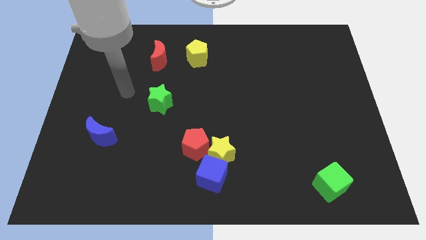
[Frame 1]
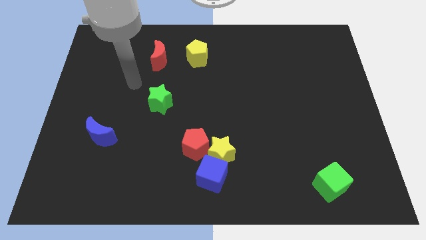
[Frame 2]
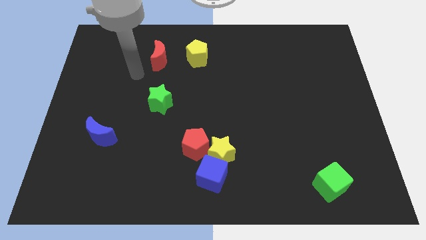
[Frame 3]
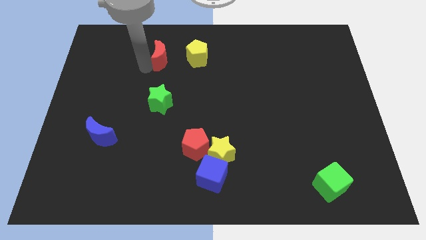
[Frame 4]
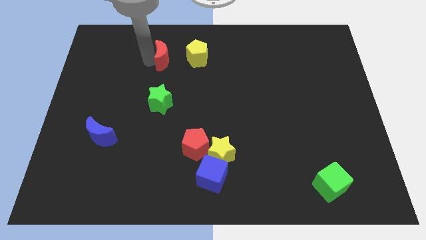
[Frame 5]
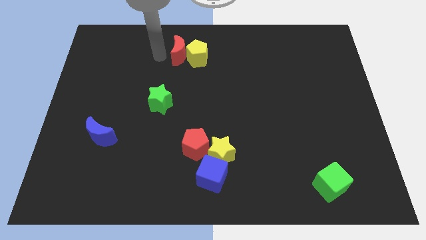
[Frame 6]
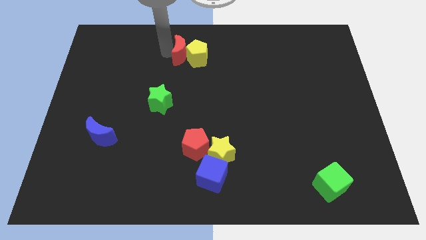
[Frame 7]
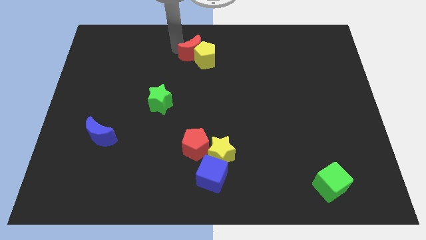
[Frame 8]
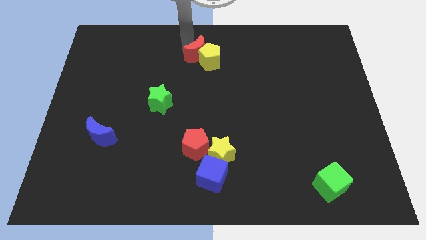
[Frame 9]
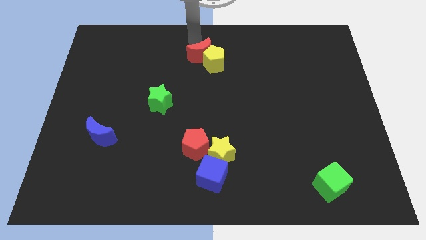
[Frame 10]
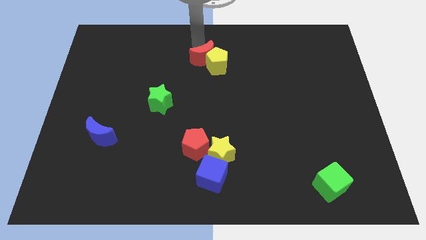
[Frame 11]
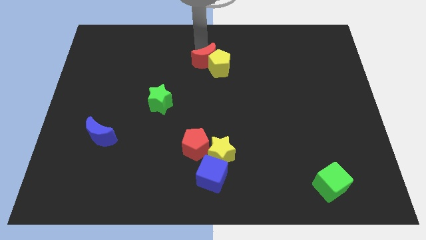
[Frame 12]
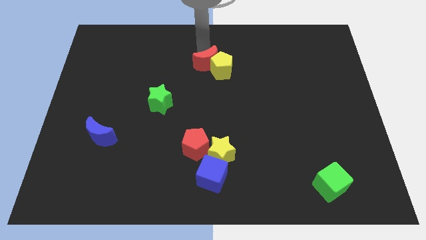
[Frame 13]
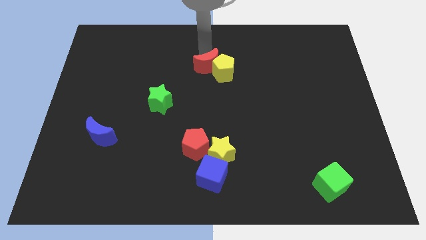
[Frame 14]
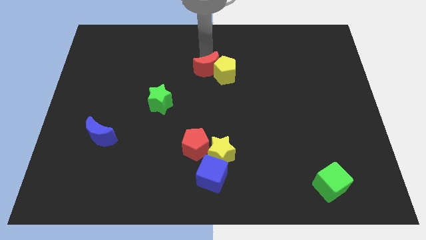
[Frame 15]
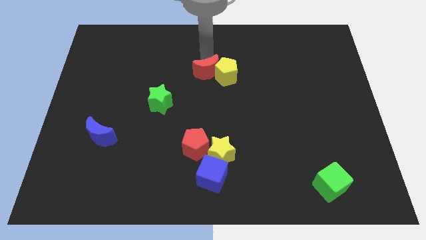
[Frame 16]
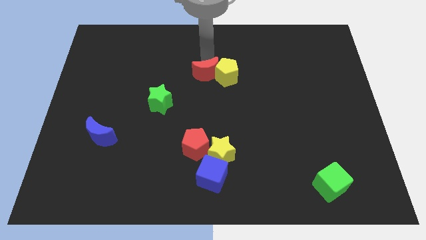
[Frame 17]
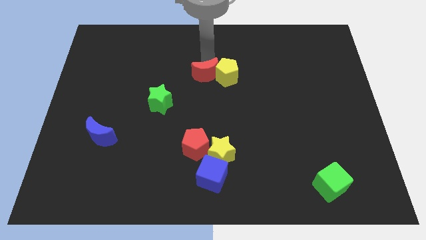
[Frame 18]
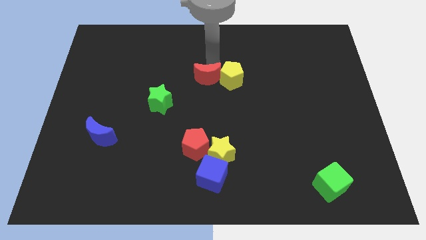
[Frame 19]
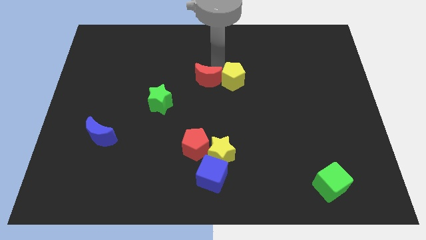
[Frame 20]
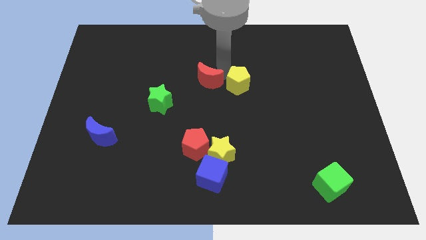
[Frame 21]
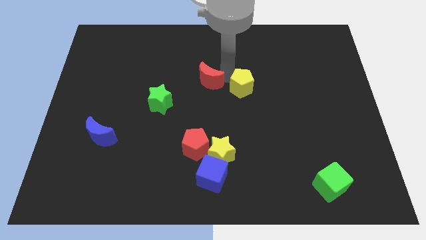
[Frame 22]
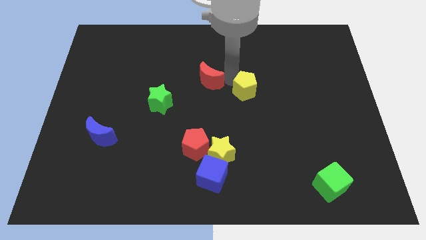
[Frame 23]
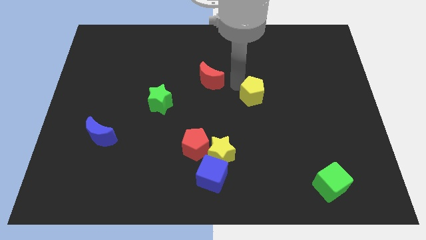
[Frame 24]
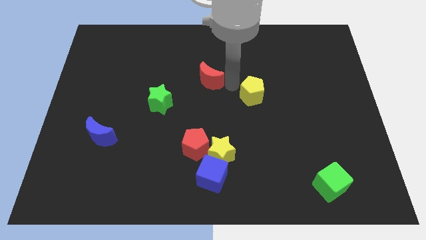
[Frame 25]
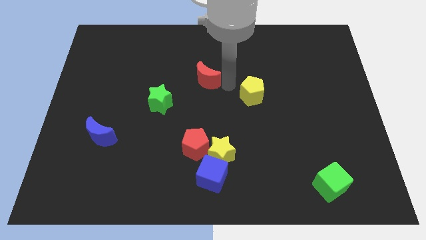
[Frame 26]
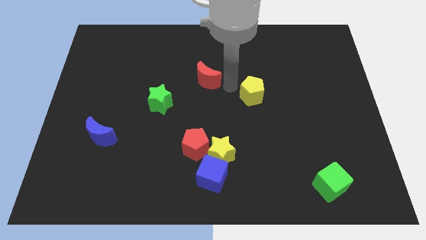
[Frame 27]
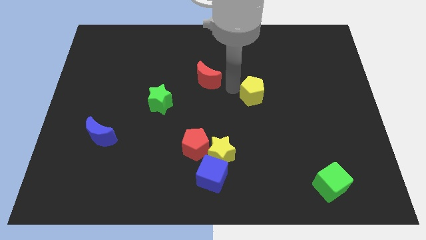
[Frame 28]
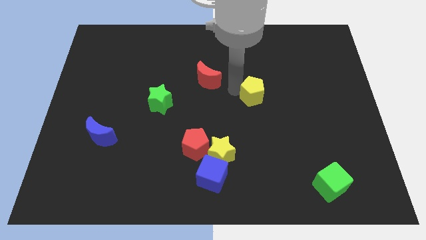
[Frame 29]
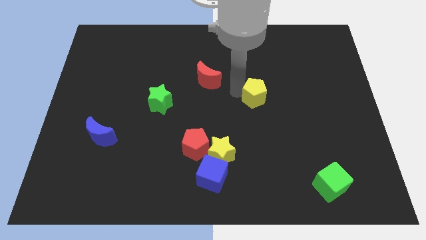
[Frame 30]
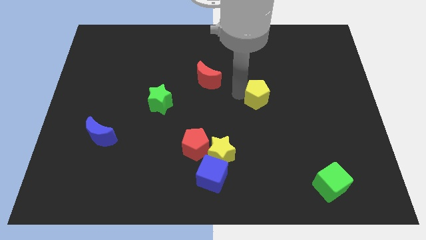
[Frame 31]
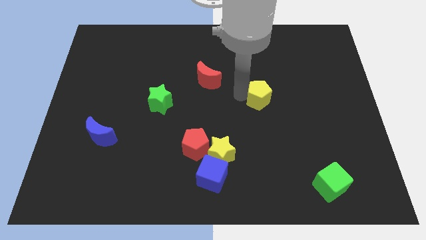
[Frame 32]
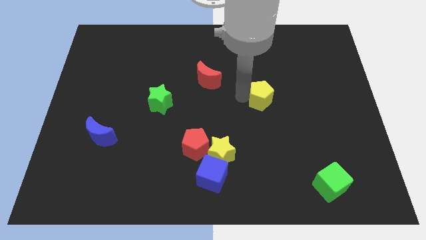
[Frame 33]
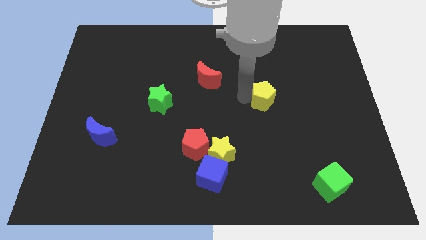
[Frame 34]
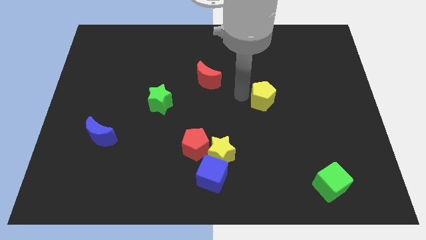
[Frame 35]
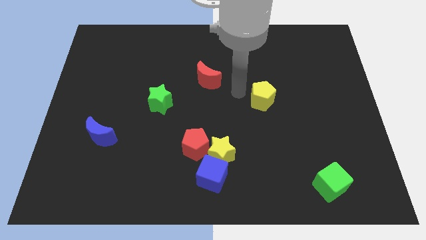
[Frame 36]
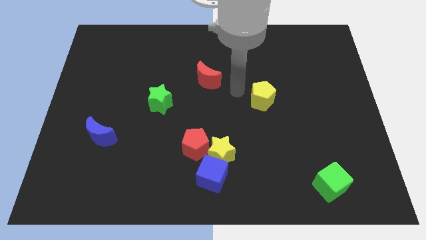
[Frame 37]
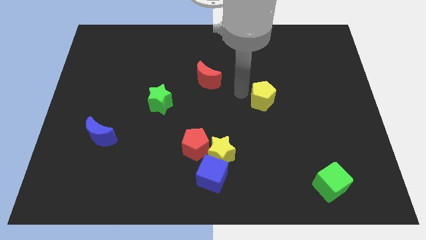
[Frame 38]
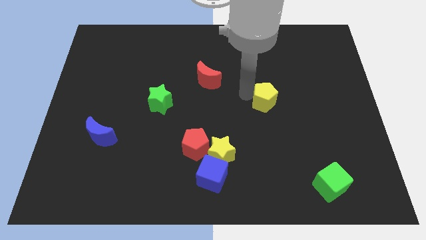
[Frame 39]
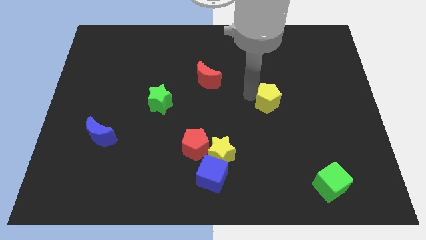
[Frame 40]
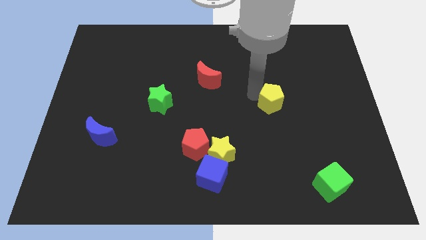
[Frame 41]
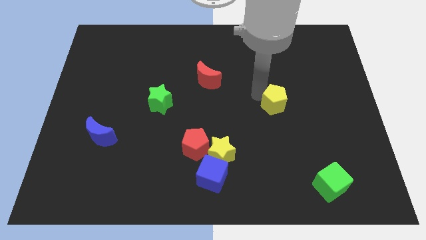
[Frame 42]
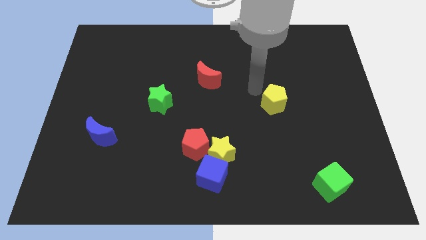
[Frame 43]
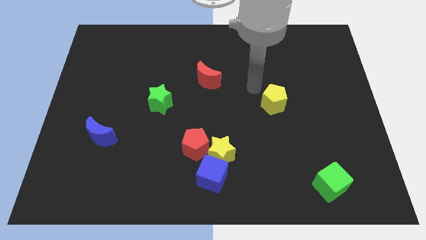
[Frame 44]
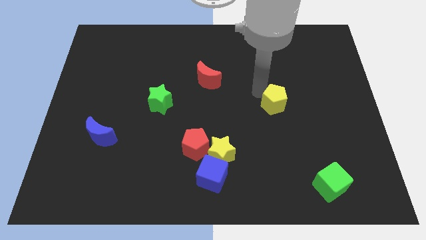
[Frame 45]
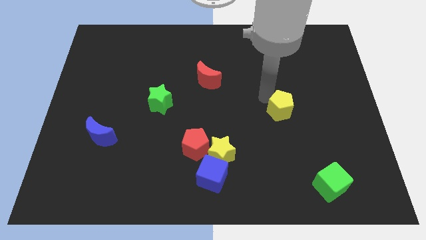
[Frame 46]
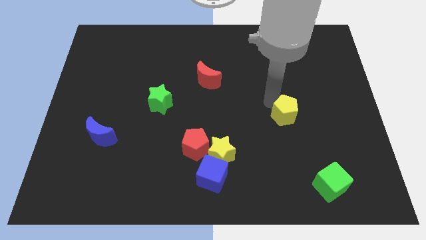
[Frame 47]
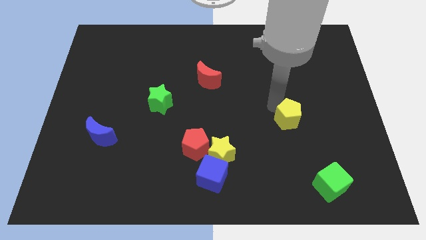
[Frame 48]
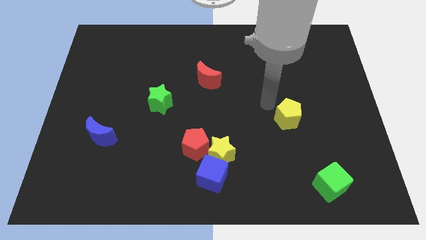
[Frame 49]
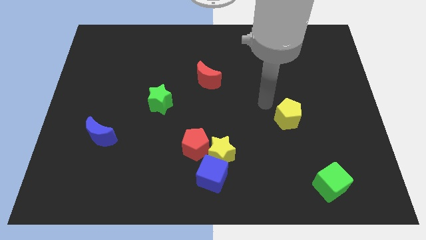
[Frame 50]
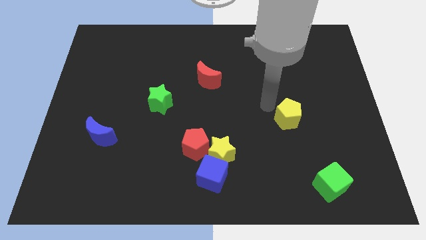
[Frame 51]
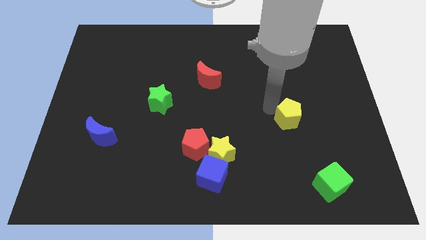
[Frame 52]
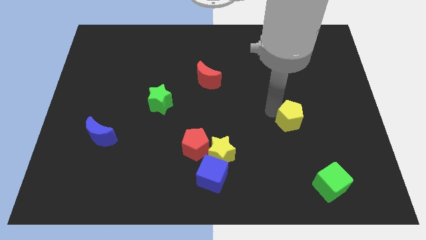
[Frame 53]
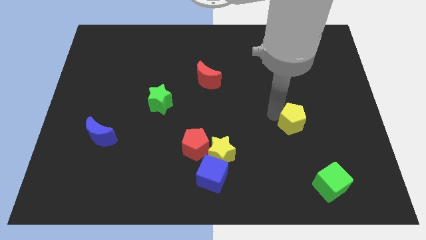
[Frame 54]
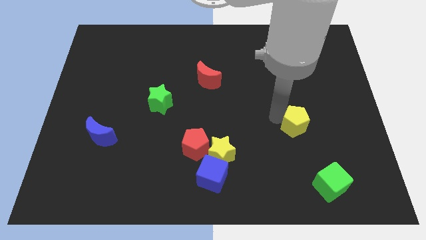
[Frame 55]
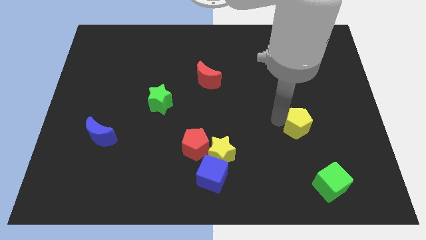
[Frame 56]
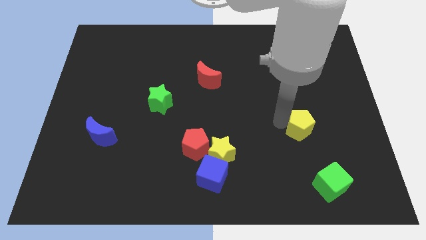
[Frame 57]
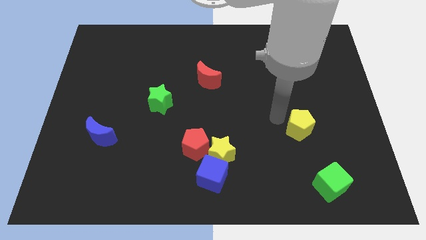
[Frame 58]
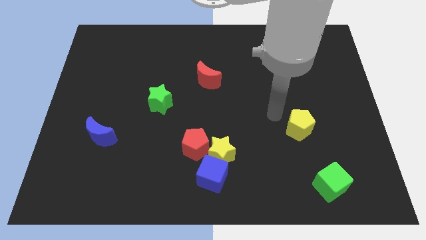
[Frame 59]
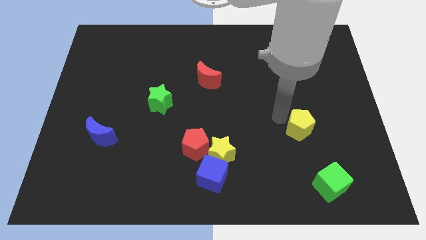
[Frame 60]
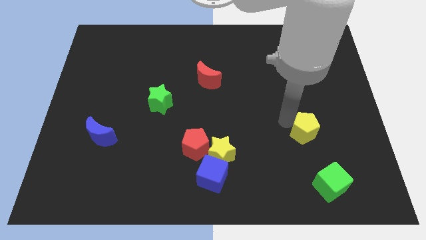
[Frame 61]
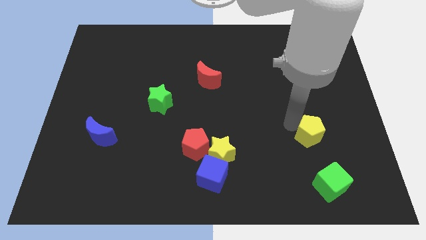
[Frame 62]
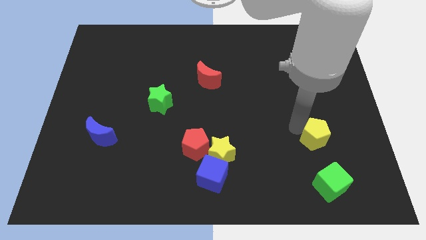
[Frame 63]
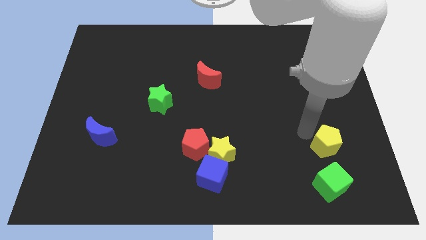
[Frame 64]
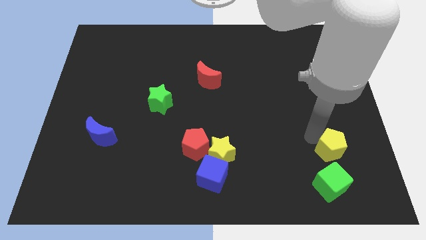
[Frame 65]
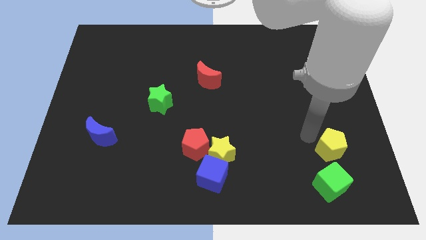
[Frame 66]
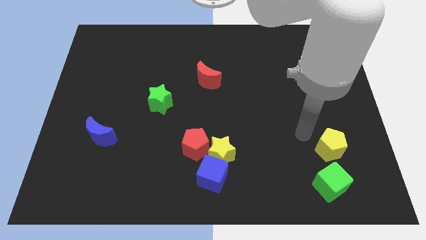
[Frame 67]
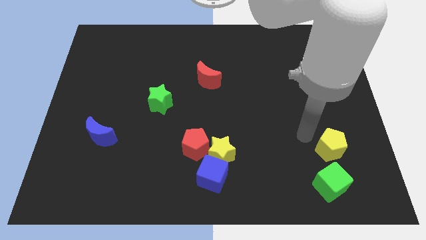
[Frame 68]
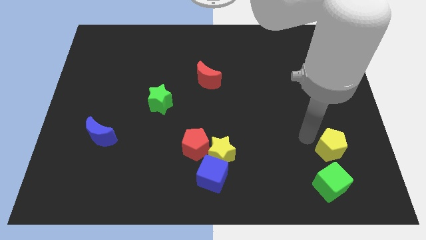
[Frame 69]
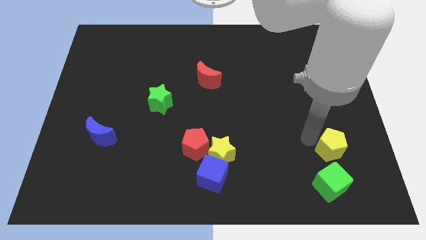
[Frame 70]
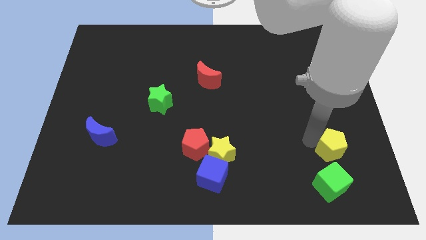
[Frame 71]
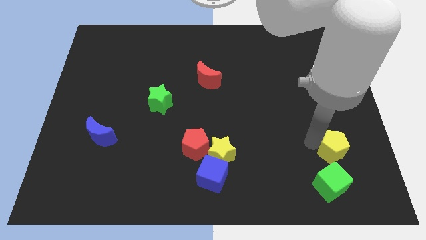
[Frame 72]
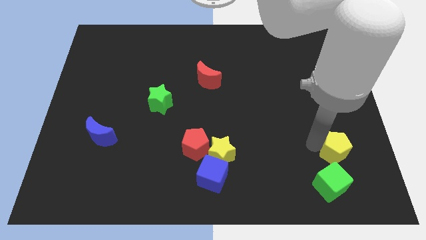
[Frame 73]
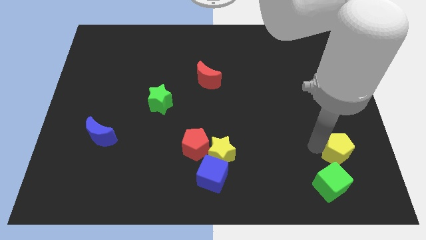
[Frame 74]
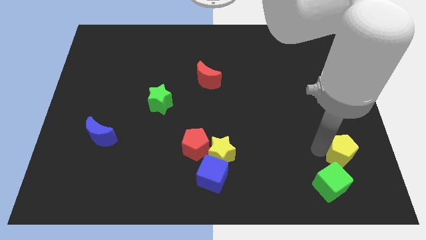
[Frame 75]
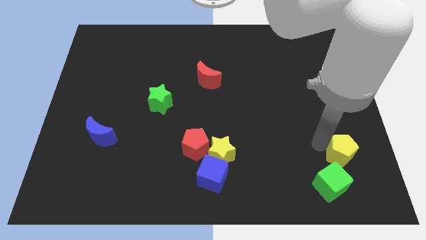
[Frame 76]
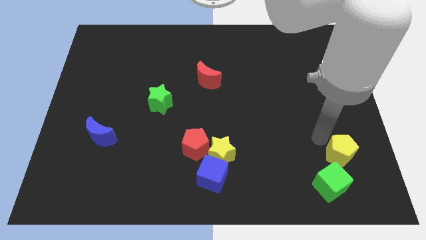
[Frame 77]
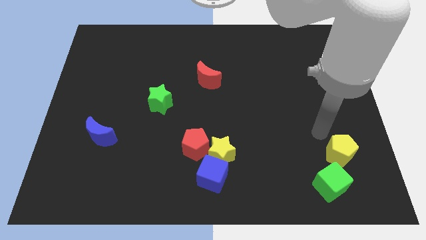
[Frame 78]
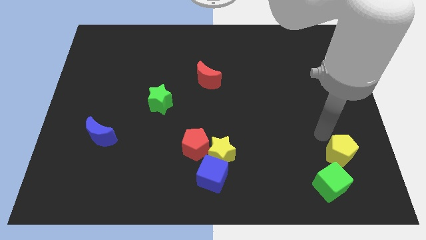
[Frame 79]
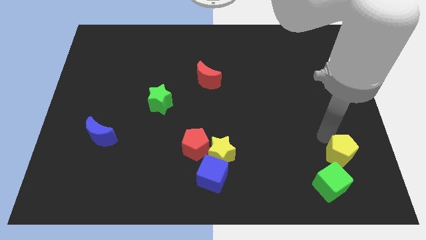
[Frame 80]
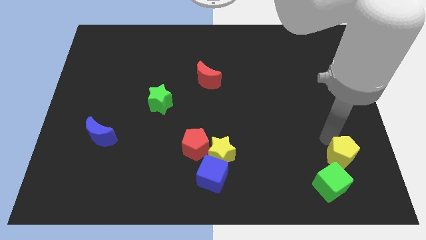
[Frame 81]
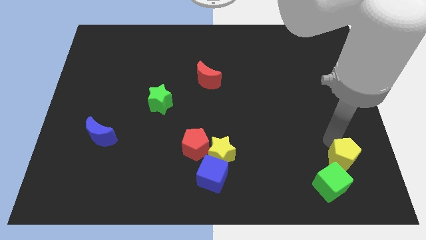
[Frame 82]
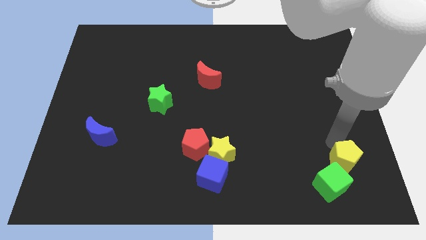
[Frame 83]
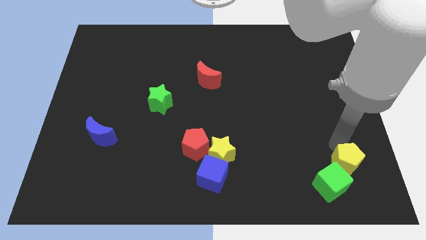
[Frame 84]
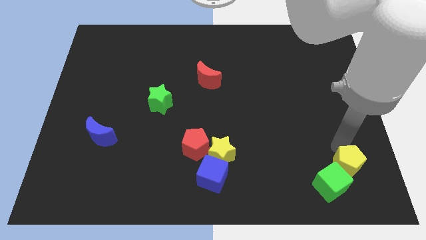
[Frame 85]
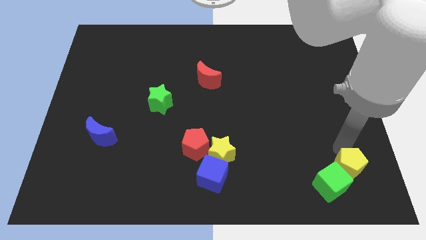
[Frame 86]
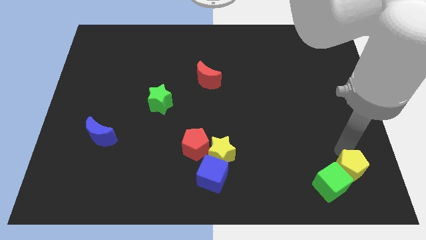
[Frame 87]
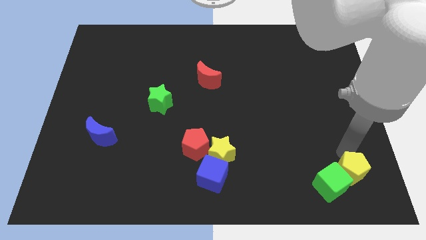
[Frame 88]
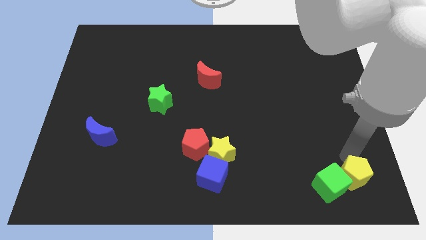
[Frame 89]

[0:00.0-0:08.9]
push the yellow pentagon to the bottom right
